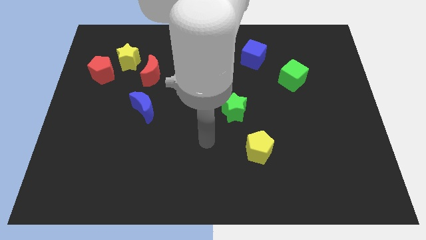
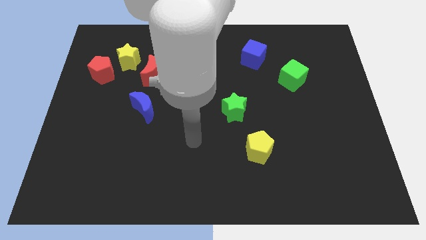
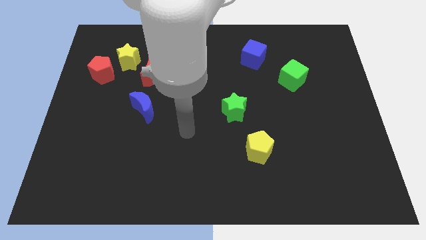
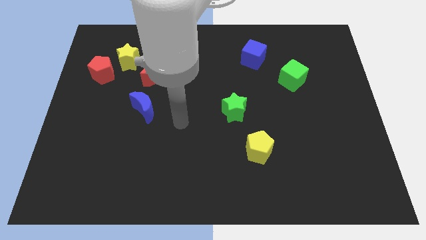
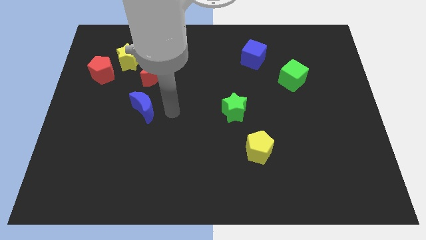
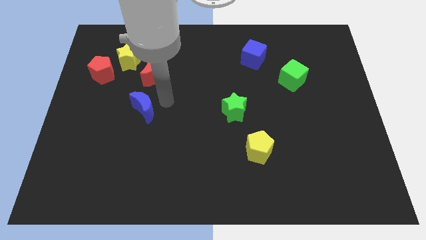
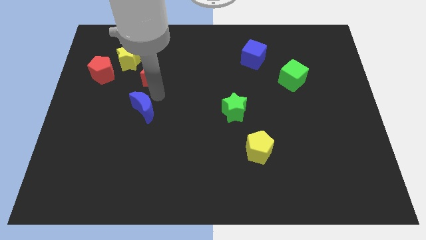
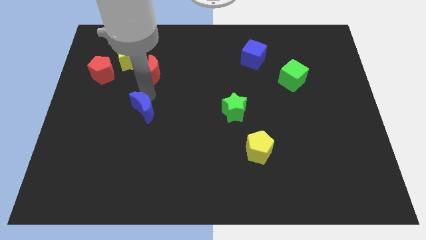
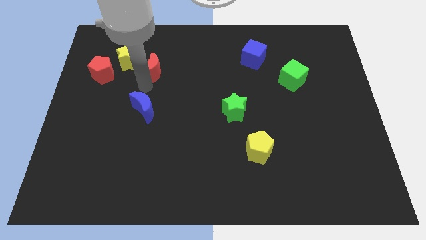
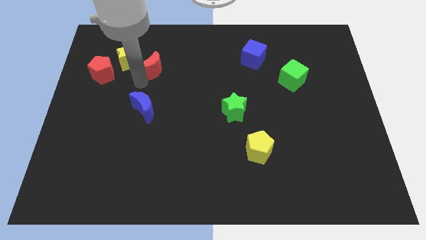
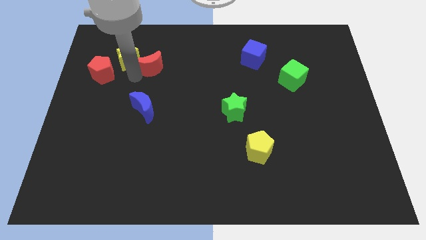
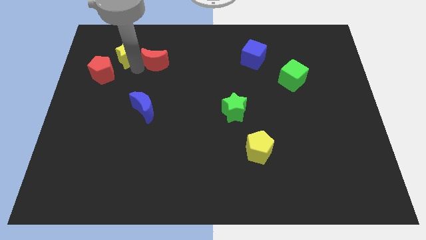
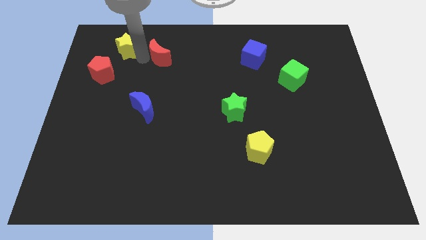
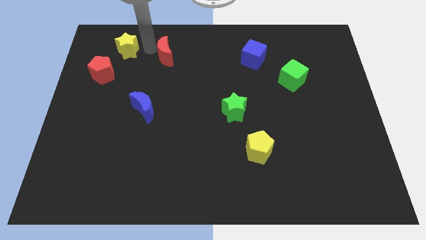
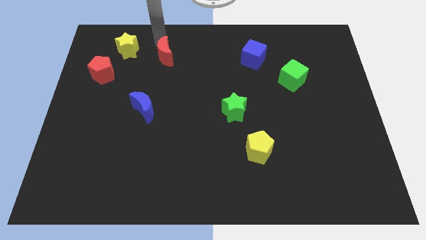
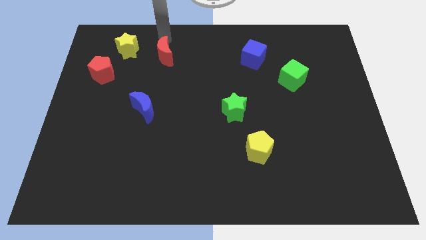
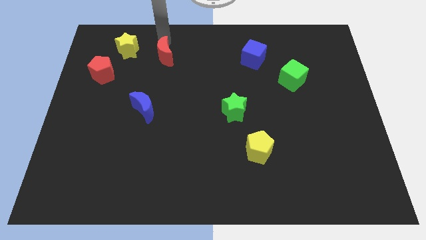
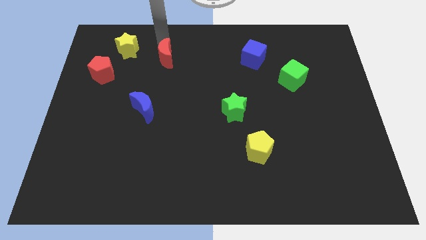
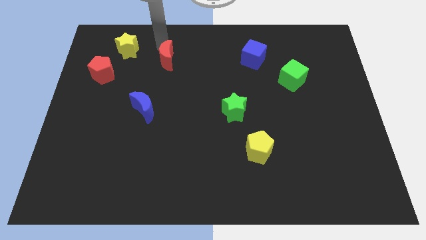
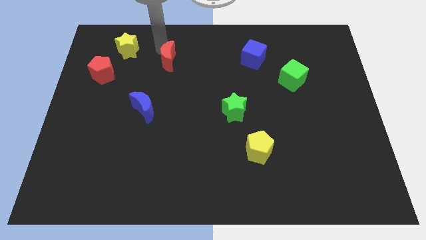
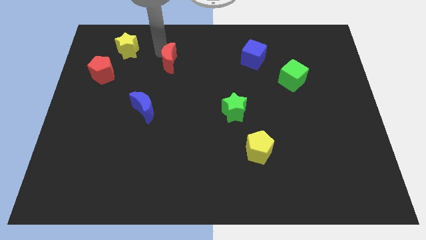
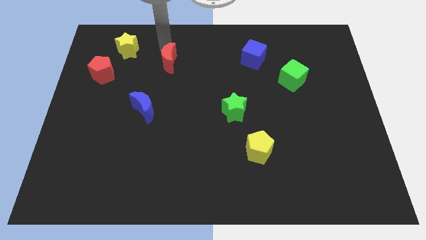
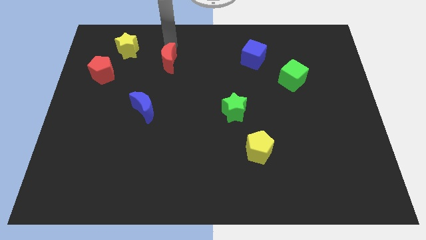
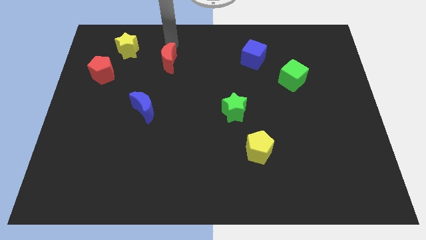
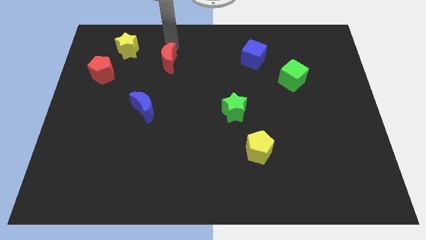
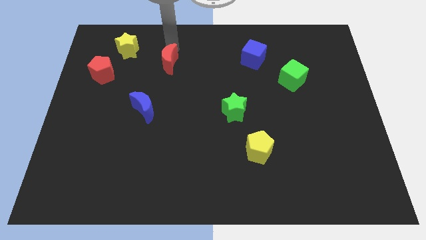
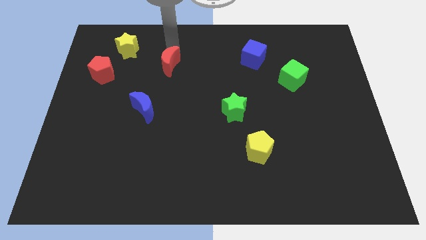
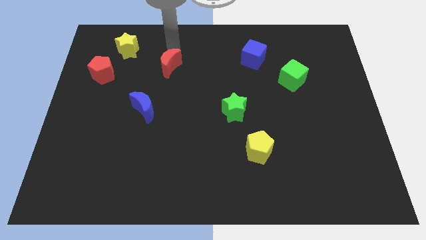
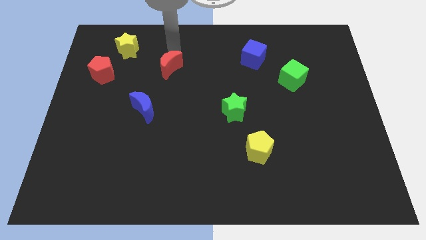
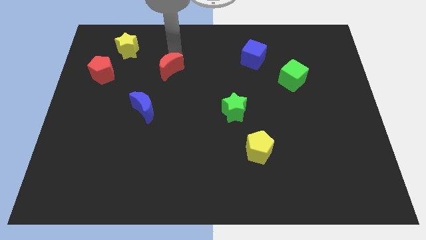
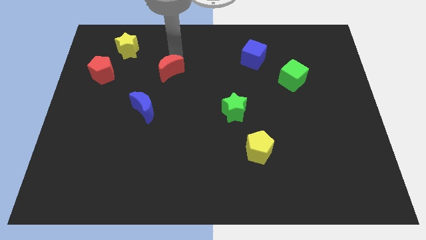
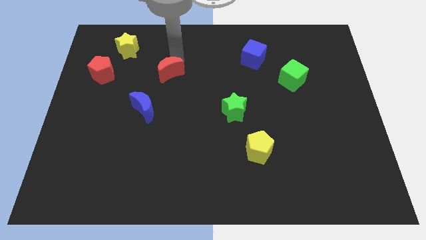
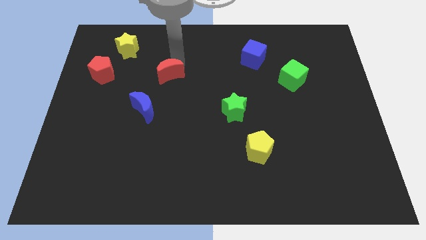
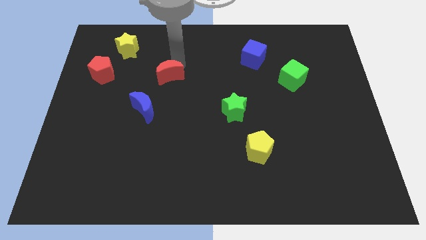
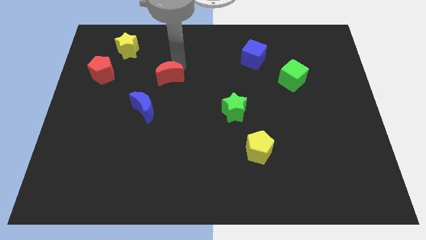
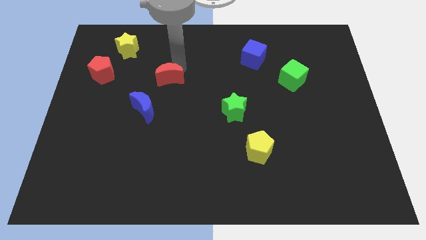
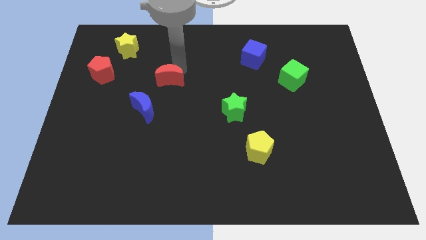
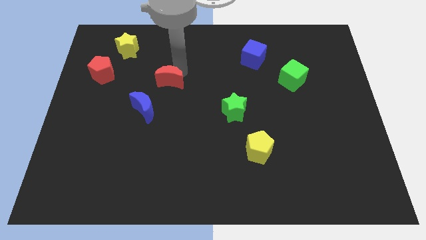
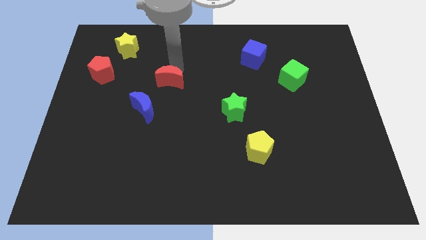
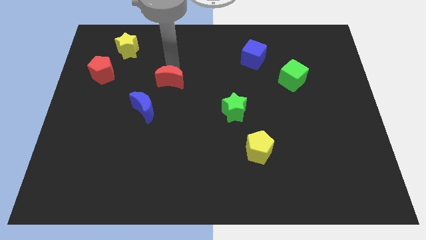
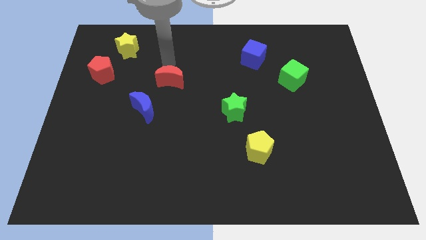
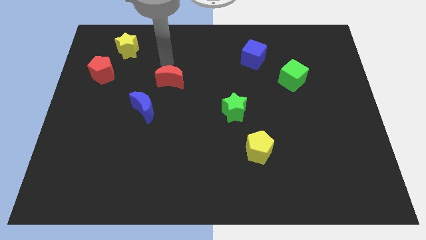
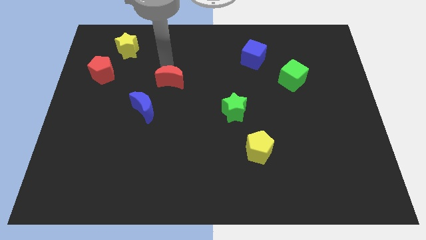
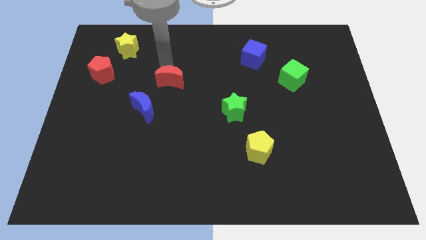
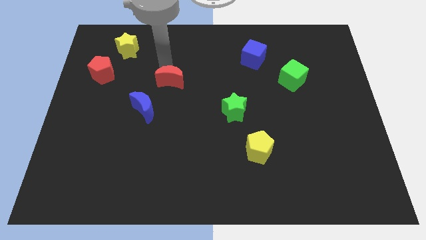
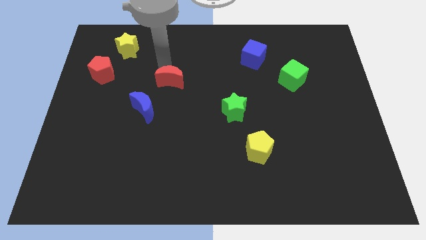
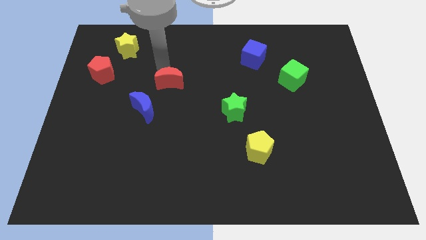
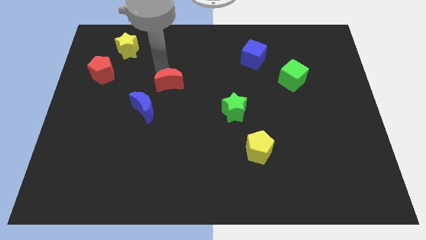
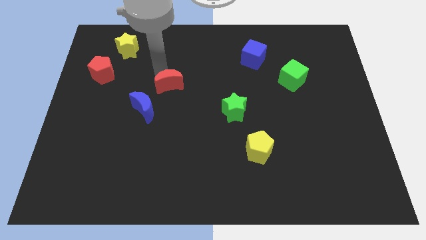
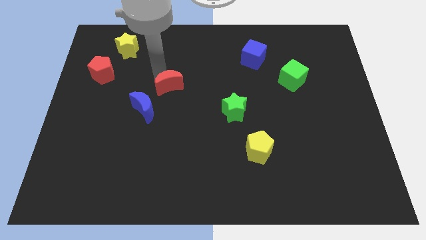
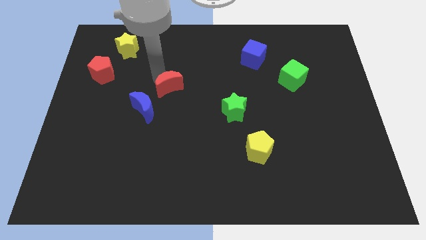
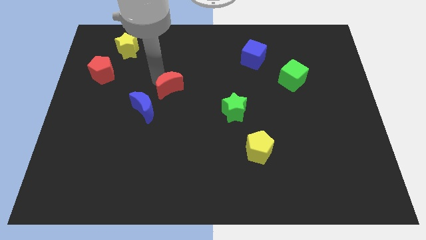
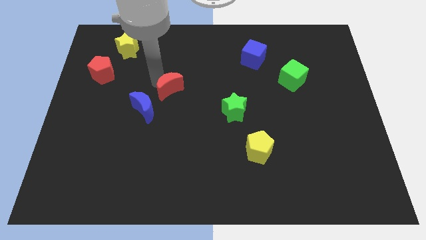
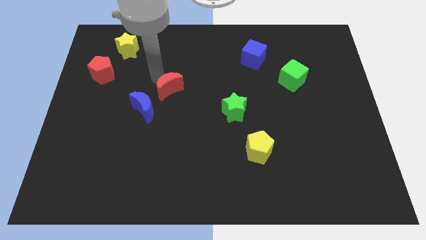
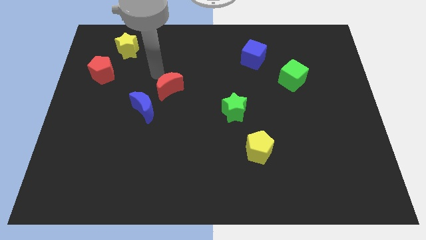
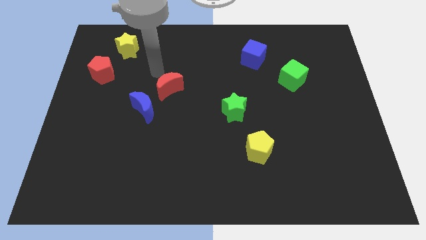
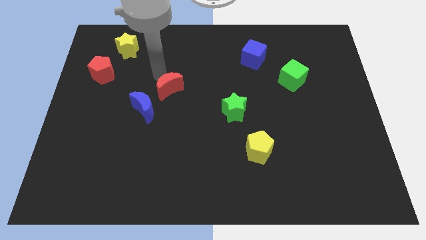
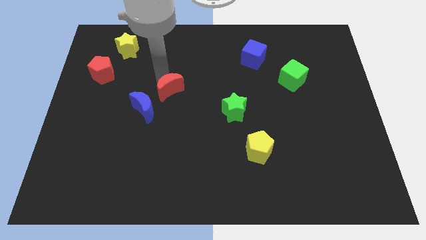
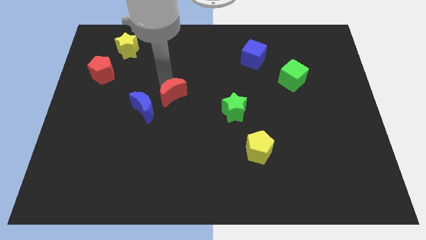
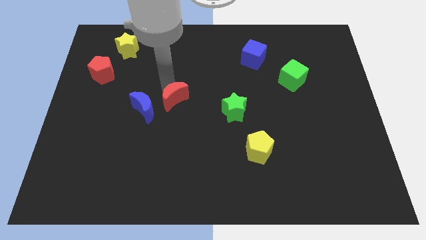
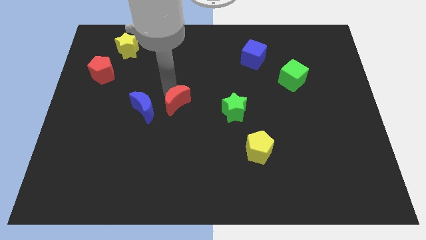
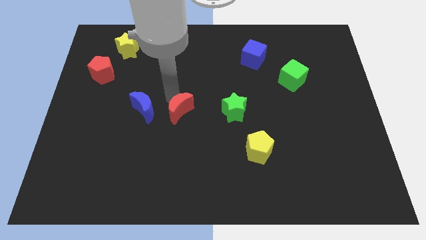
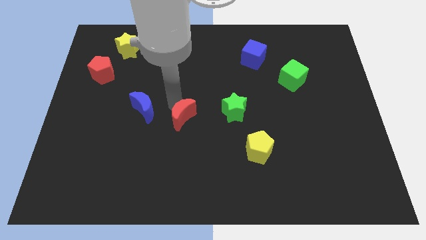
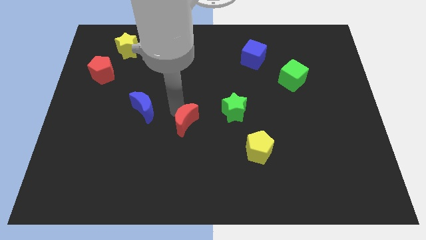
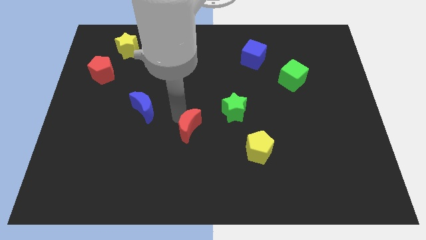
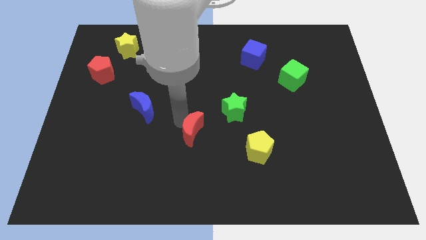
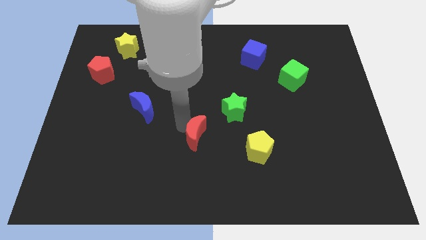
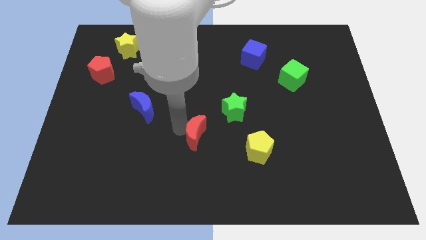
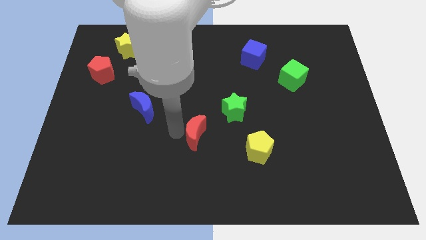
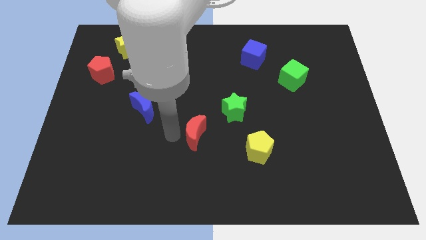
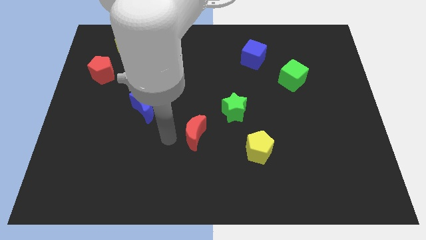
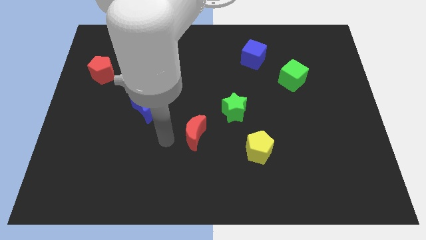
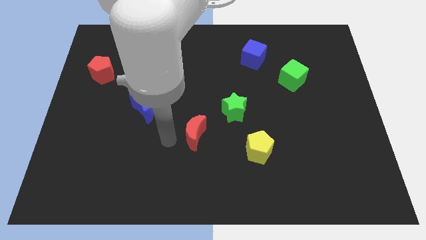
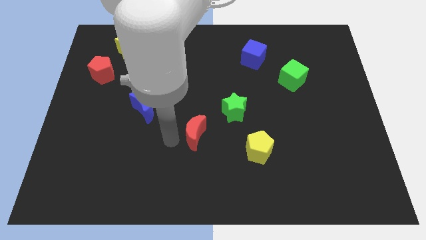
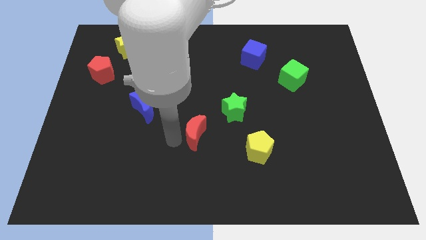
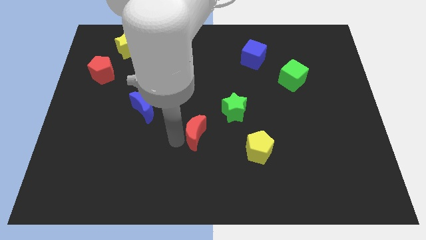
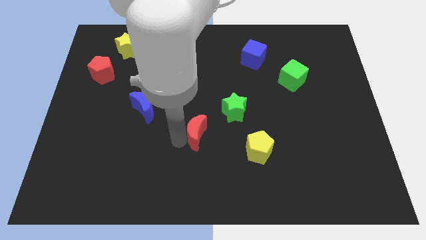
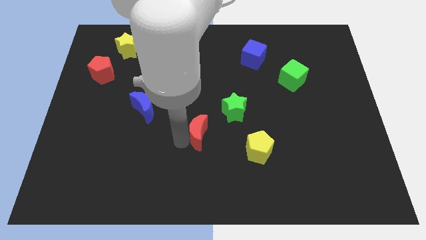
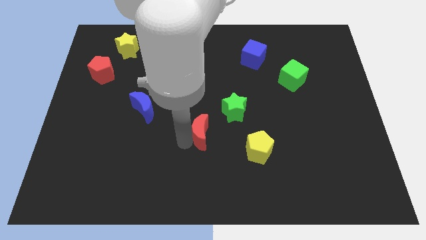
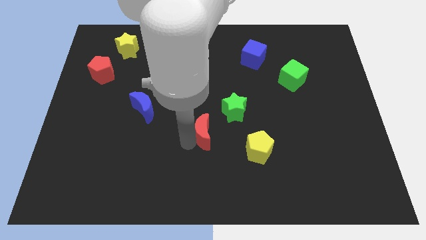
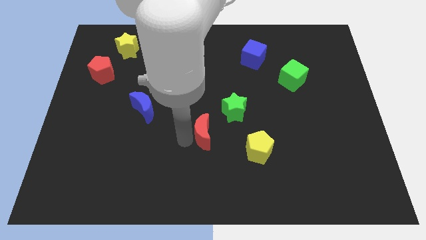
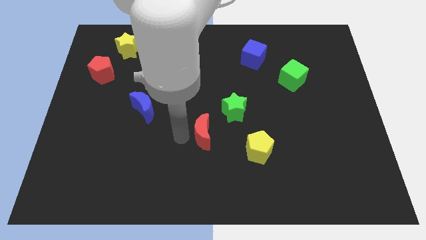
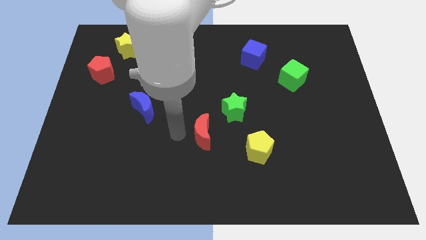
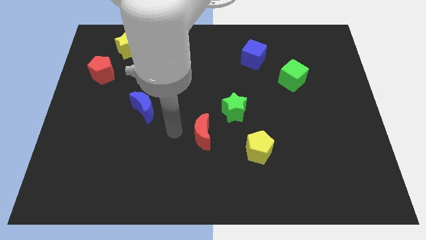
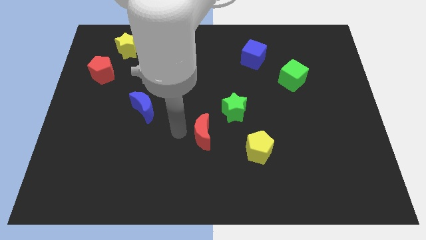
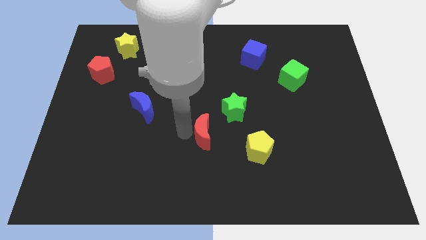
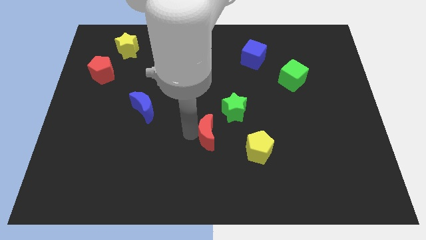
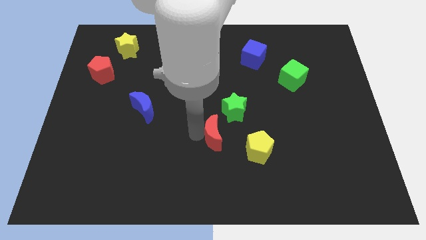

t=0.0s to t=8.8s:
slide the red moon to the bottom of the green star
